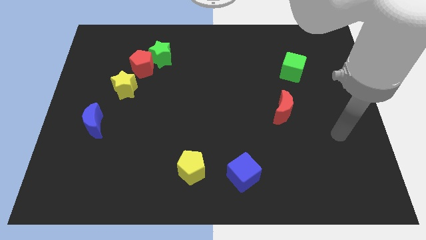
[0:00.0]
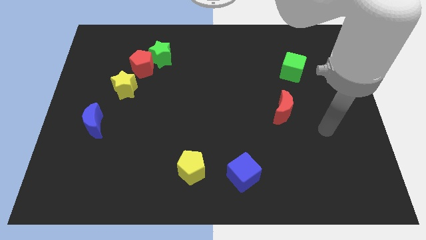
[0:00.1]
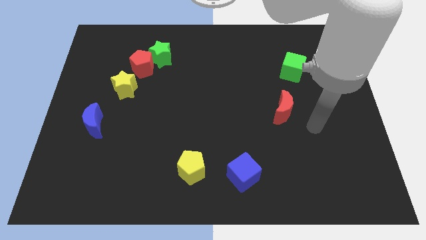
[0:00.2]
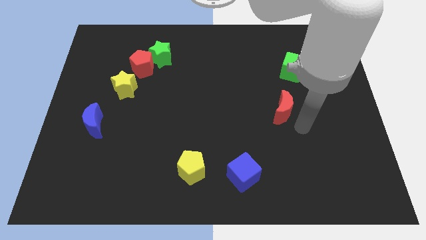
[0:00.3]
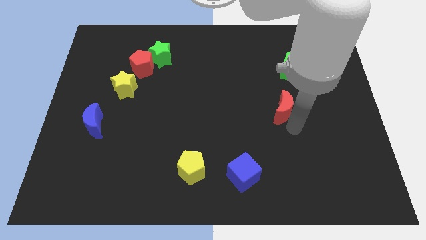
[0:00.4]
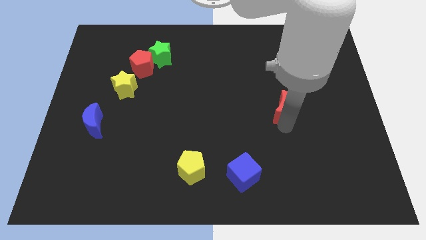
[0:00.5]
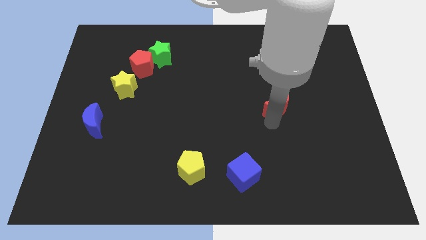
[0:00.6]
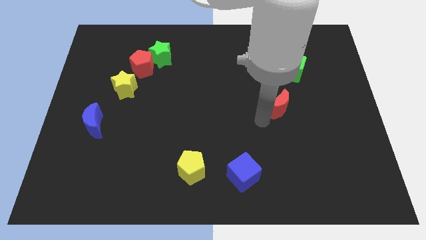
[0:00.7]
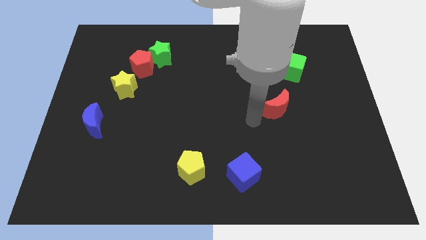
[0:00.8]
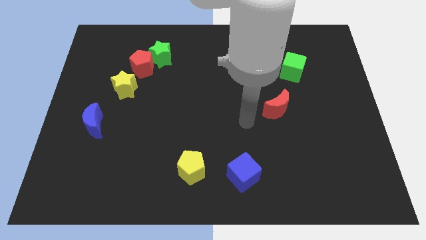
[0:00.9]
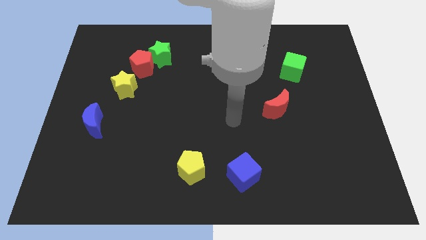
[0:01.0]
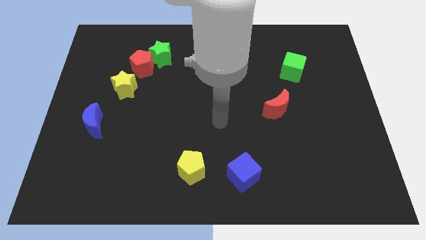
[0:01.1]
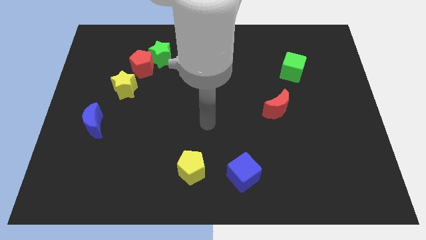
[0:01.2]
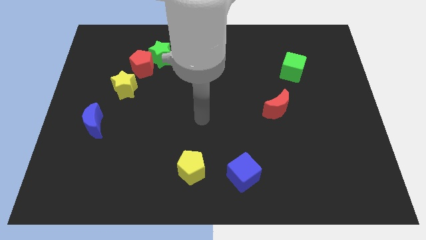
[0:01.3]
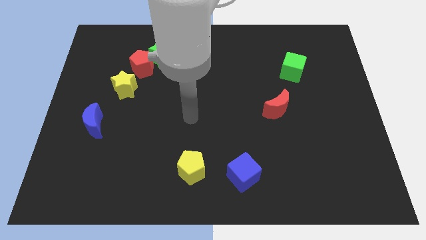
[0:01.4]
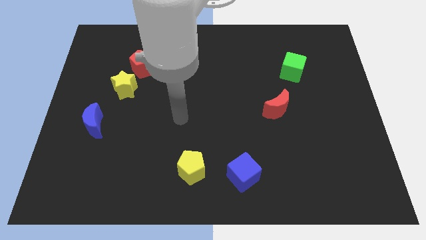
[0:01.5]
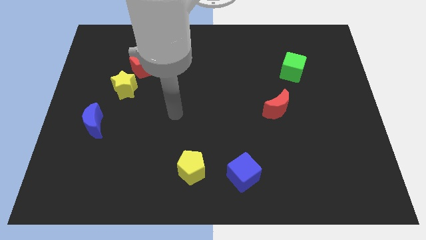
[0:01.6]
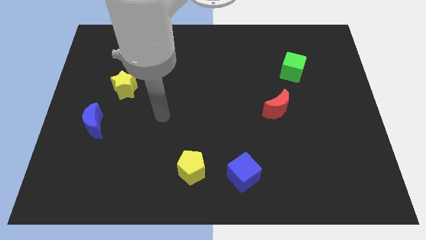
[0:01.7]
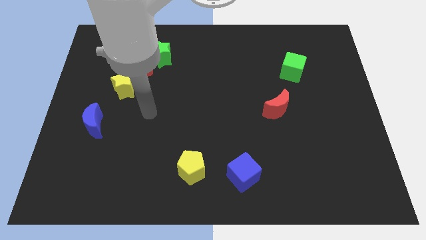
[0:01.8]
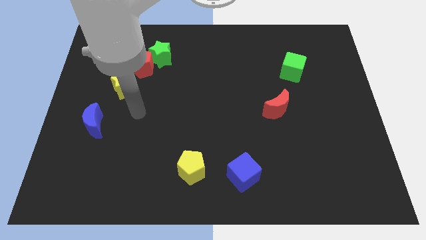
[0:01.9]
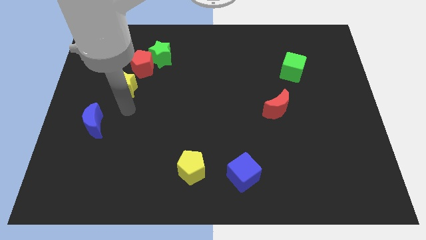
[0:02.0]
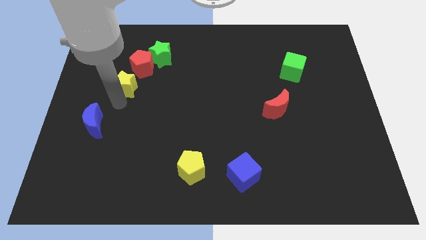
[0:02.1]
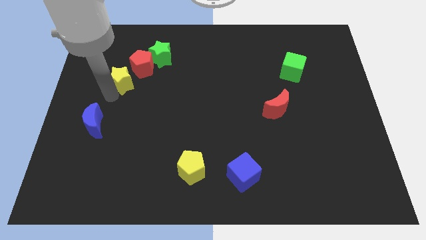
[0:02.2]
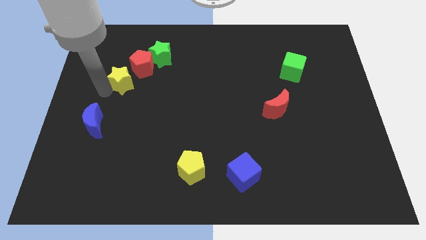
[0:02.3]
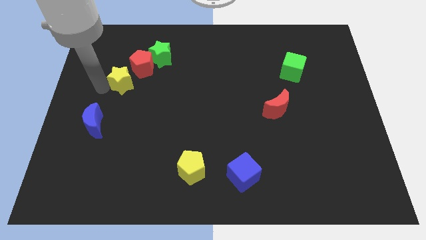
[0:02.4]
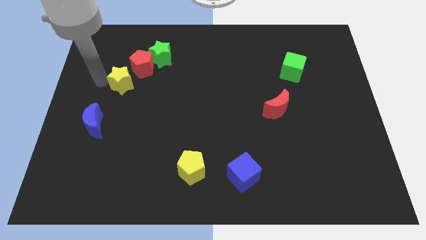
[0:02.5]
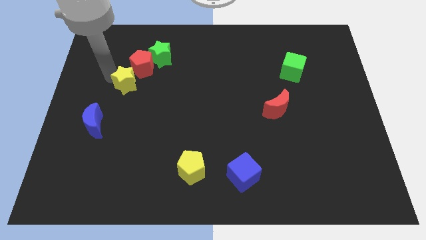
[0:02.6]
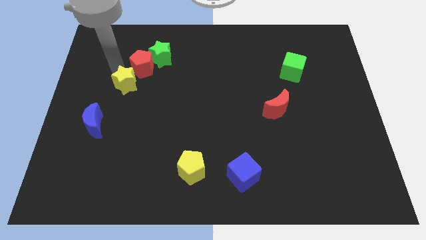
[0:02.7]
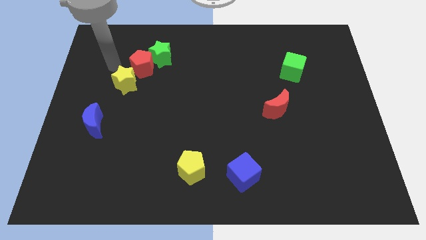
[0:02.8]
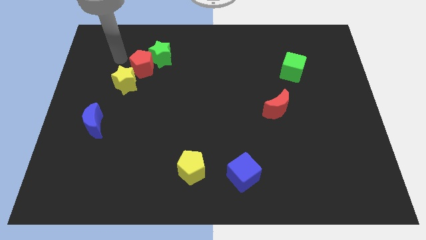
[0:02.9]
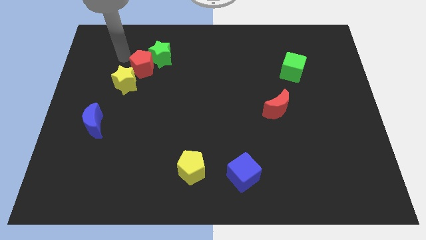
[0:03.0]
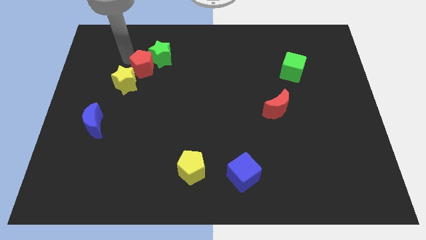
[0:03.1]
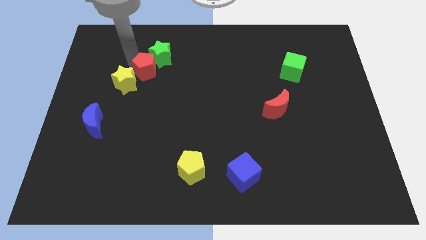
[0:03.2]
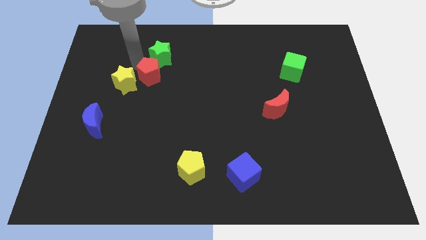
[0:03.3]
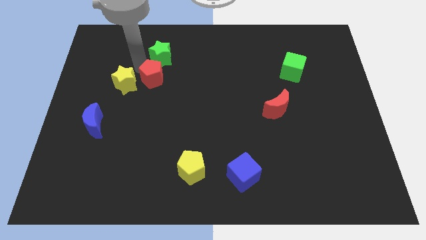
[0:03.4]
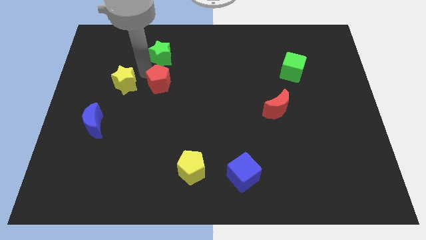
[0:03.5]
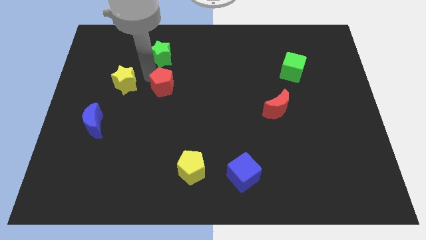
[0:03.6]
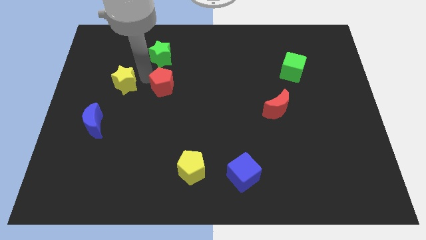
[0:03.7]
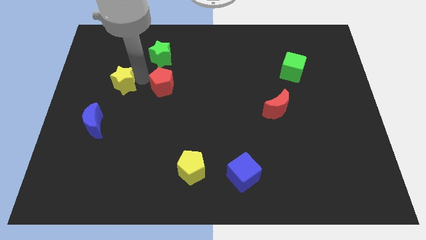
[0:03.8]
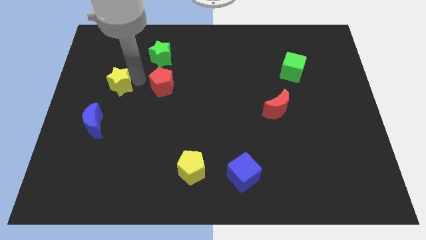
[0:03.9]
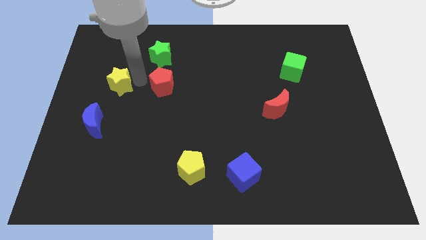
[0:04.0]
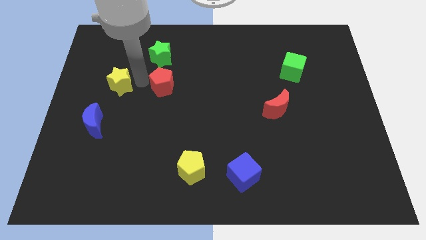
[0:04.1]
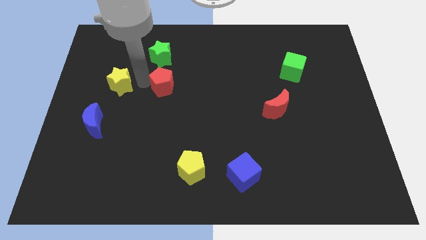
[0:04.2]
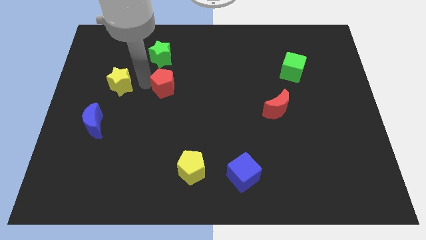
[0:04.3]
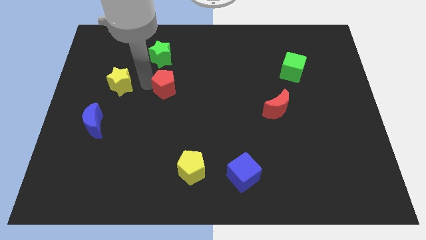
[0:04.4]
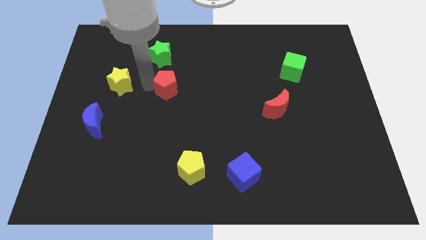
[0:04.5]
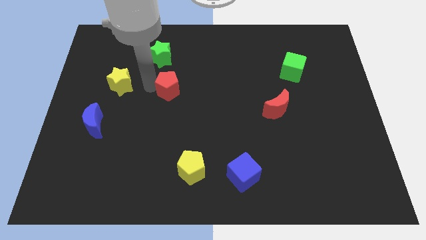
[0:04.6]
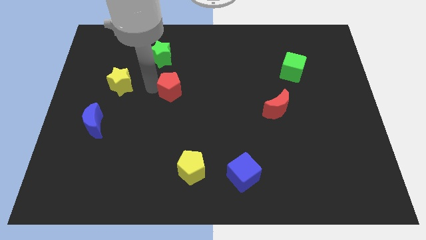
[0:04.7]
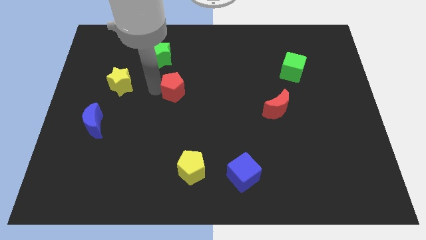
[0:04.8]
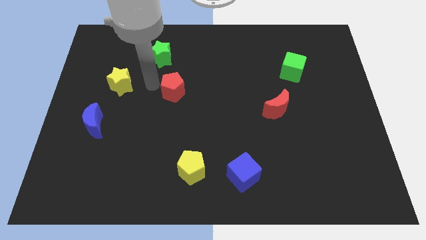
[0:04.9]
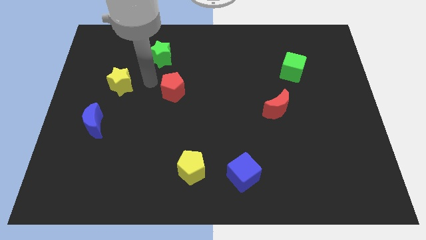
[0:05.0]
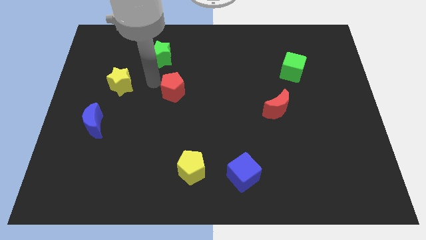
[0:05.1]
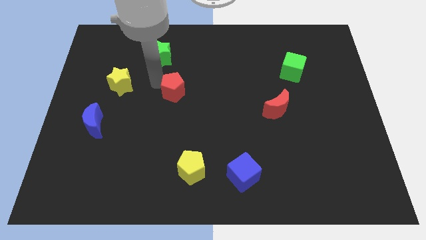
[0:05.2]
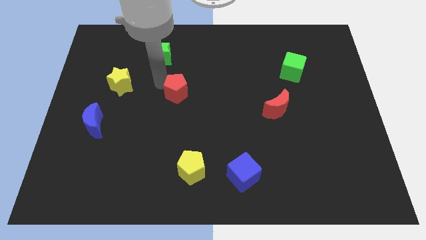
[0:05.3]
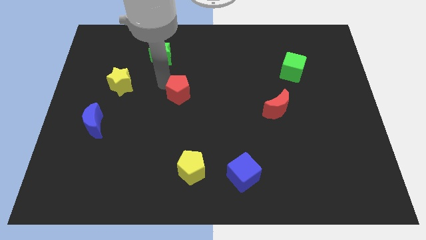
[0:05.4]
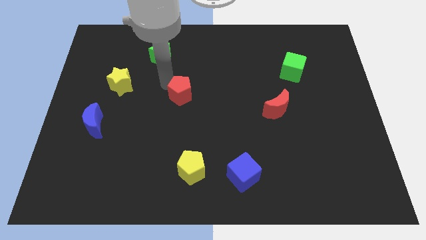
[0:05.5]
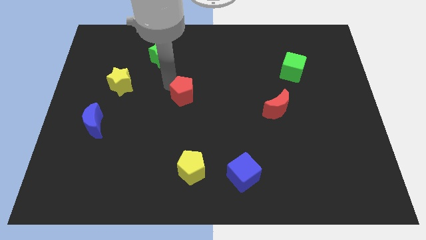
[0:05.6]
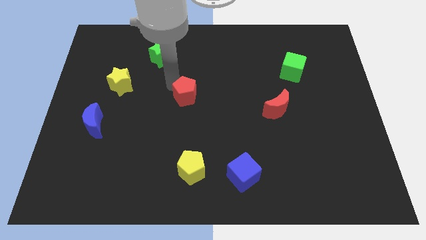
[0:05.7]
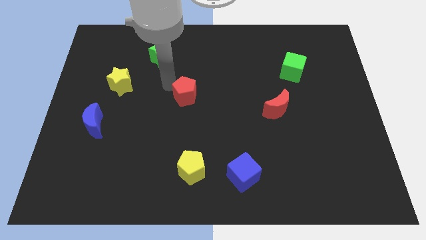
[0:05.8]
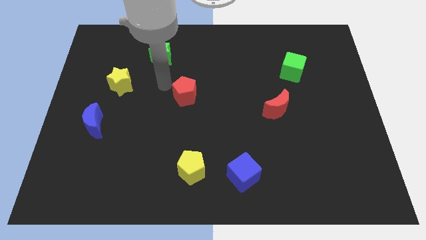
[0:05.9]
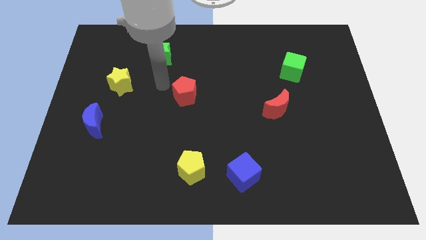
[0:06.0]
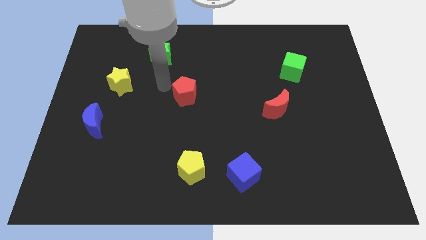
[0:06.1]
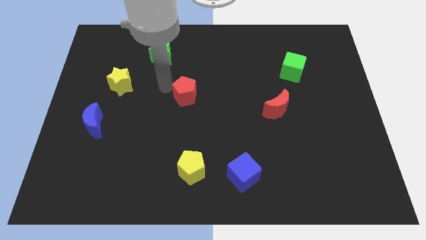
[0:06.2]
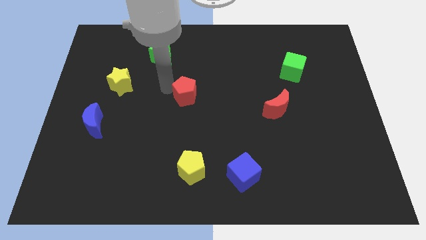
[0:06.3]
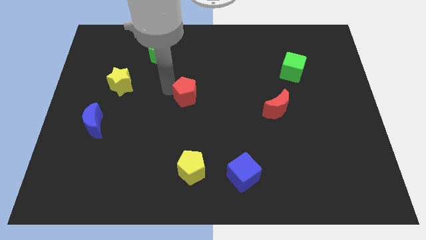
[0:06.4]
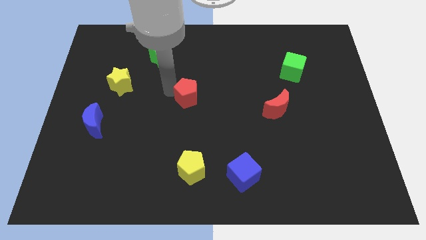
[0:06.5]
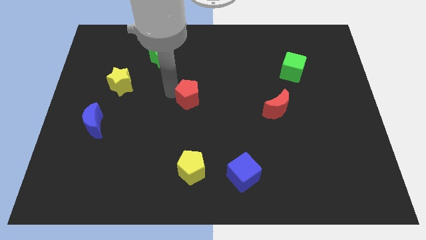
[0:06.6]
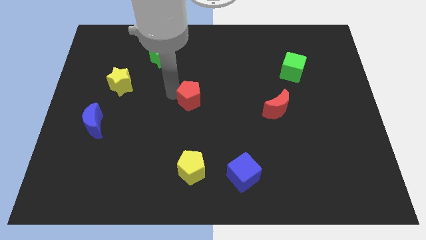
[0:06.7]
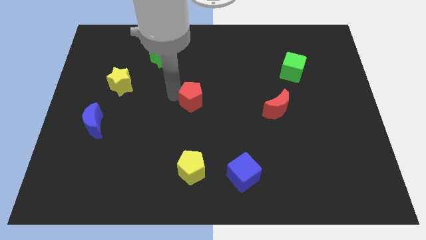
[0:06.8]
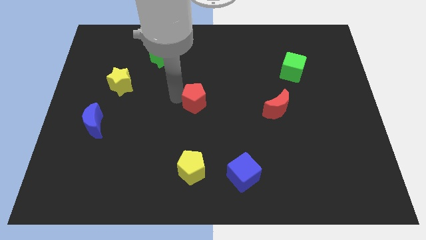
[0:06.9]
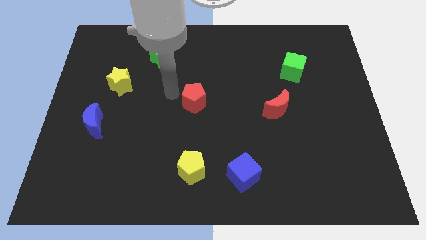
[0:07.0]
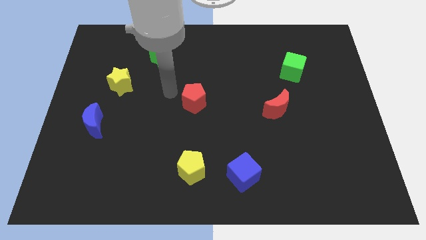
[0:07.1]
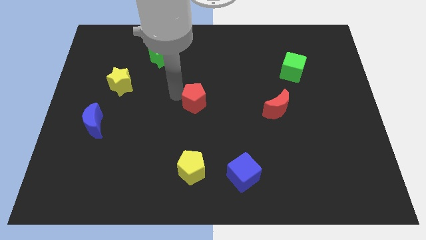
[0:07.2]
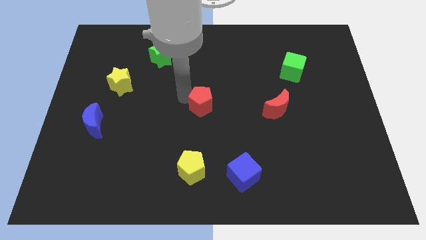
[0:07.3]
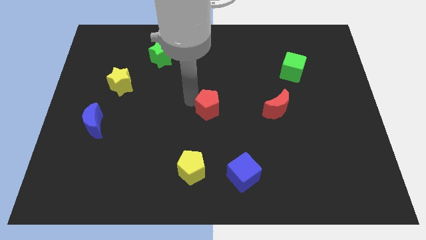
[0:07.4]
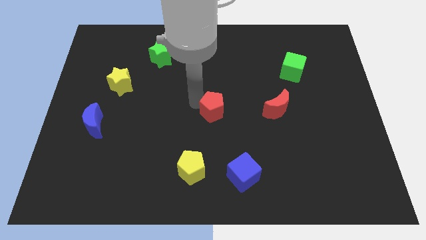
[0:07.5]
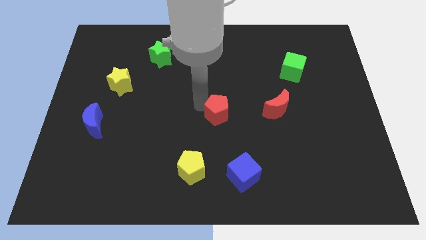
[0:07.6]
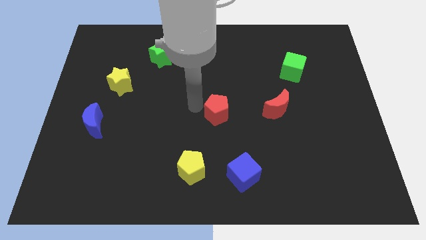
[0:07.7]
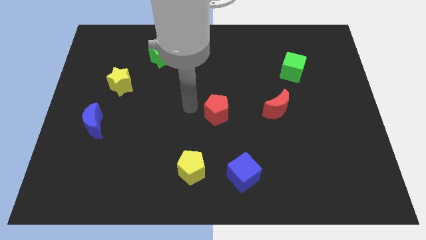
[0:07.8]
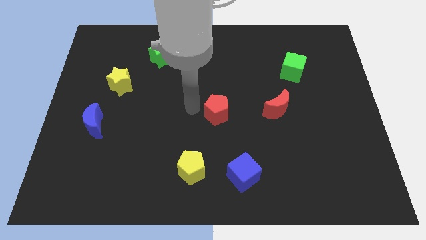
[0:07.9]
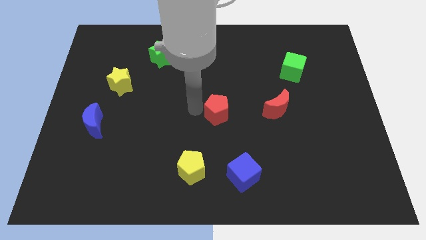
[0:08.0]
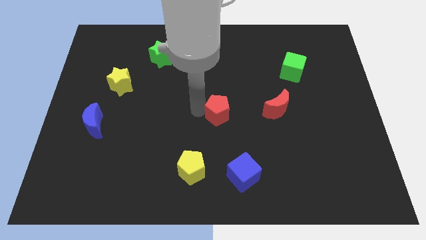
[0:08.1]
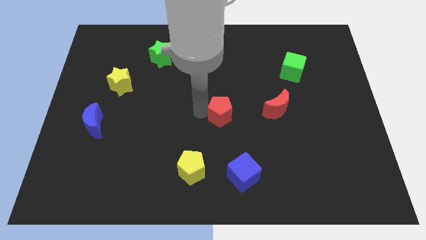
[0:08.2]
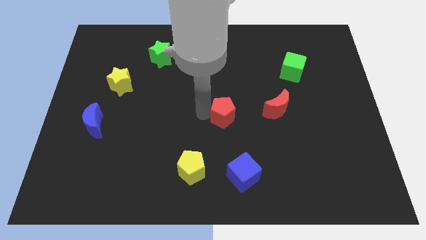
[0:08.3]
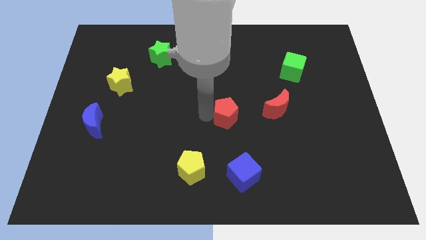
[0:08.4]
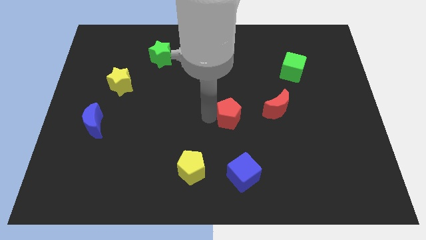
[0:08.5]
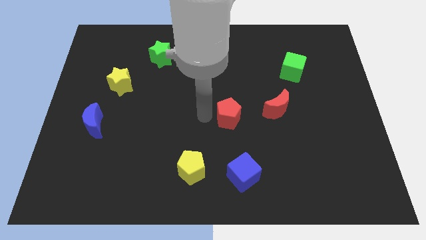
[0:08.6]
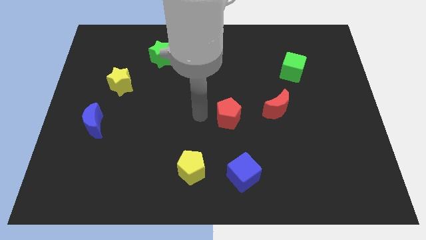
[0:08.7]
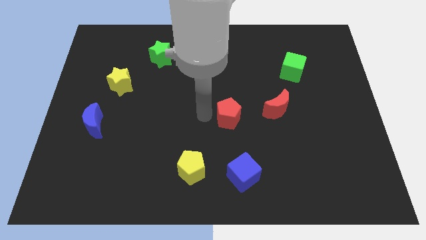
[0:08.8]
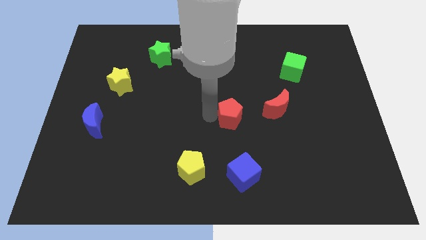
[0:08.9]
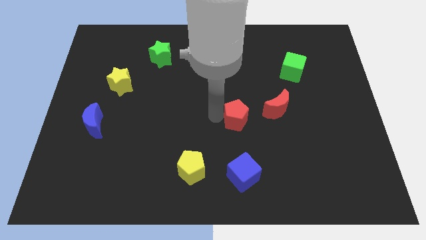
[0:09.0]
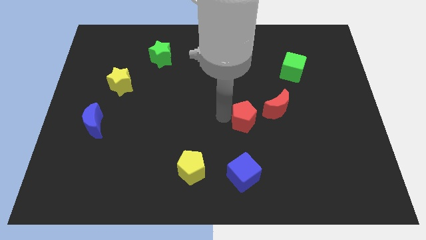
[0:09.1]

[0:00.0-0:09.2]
put the red pentagon diagonally down and to the left of the red moon
